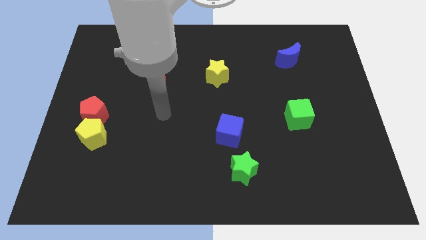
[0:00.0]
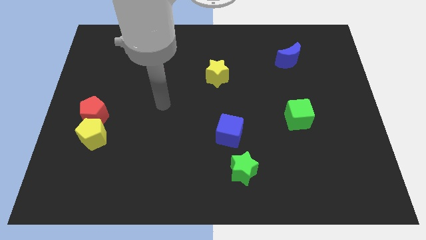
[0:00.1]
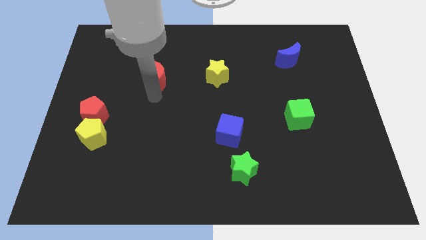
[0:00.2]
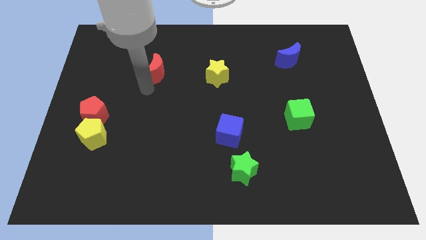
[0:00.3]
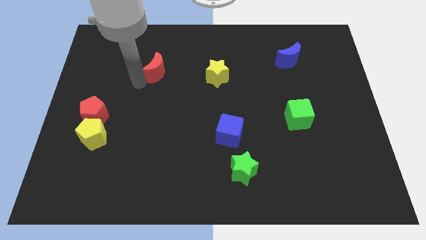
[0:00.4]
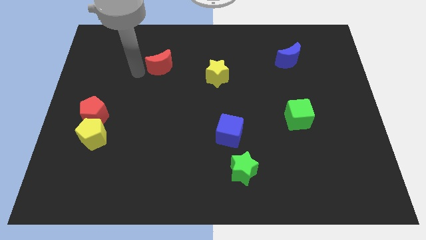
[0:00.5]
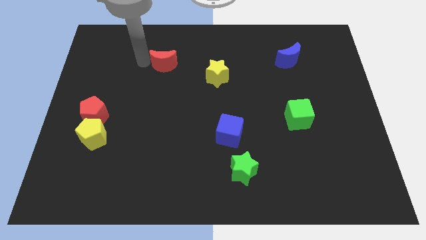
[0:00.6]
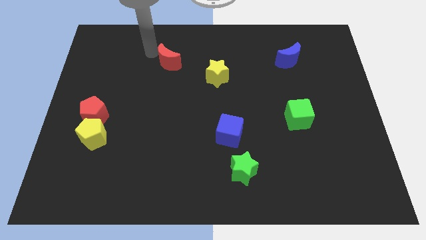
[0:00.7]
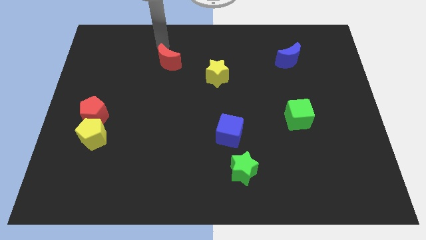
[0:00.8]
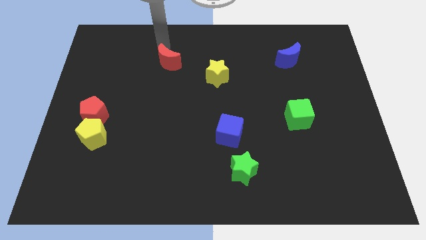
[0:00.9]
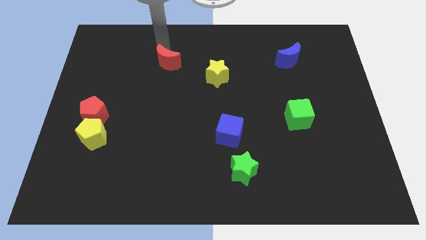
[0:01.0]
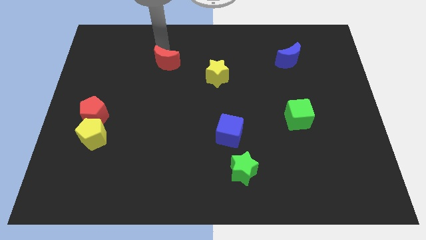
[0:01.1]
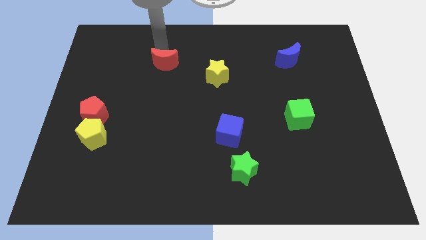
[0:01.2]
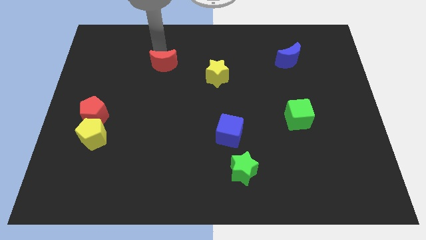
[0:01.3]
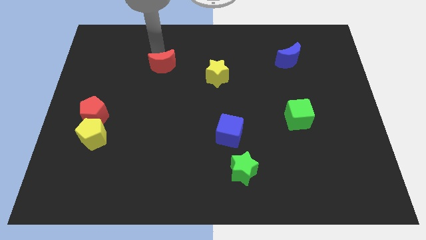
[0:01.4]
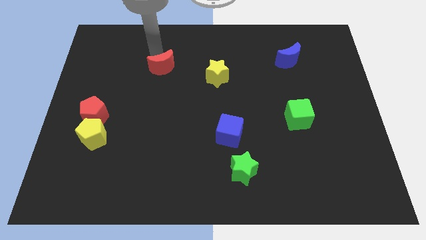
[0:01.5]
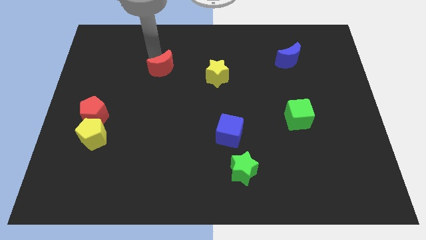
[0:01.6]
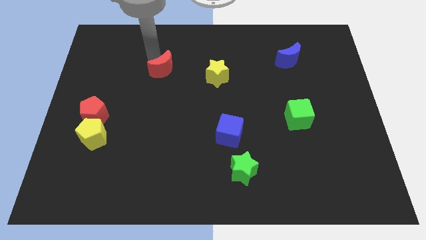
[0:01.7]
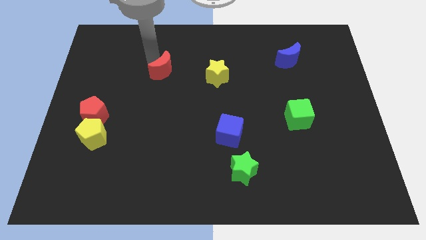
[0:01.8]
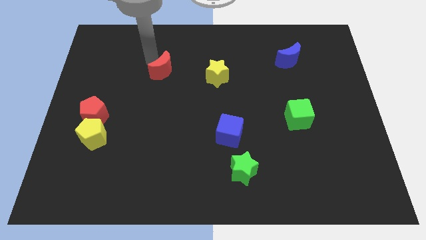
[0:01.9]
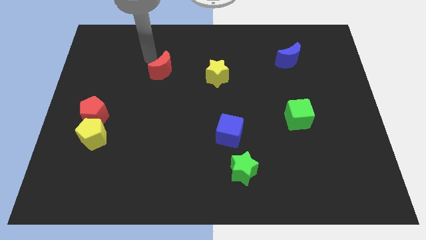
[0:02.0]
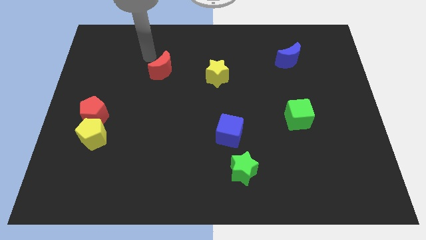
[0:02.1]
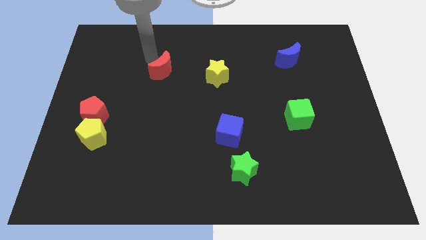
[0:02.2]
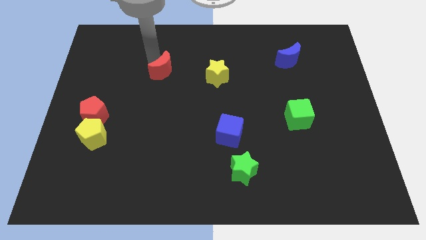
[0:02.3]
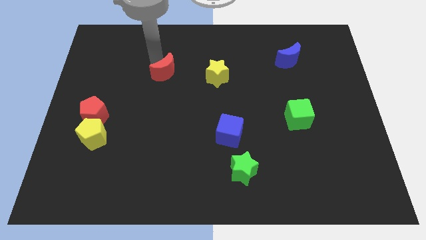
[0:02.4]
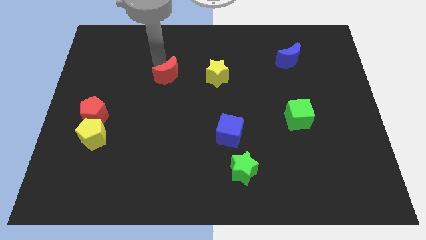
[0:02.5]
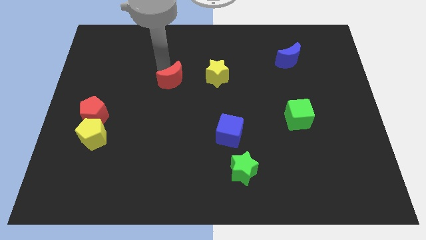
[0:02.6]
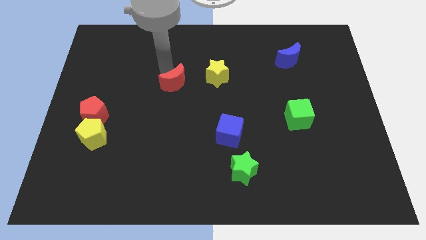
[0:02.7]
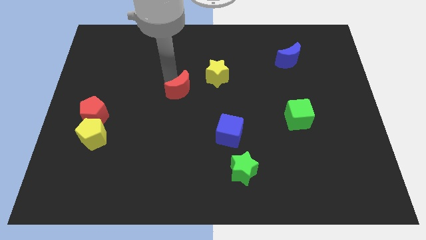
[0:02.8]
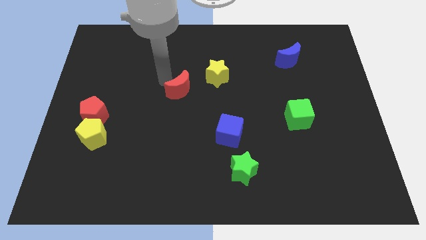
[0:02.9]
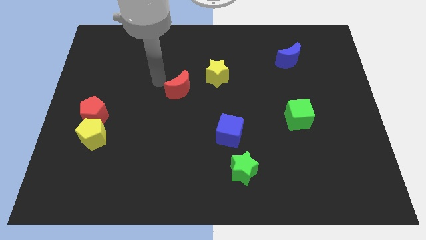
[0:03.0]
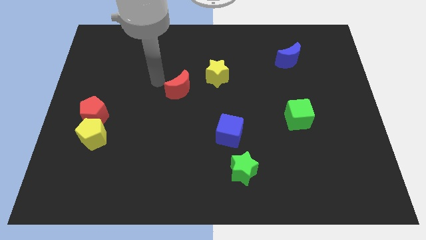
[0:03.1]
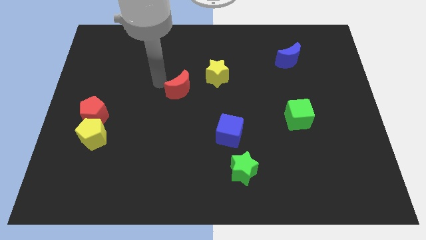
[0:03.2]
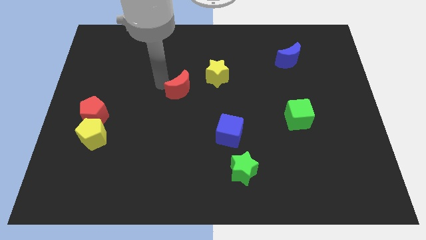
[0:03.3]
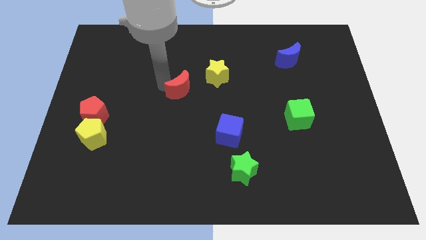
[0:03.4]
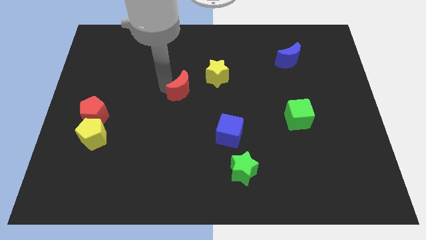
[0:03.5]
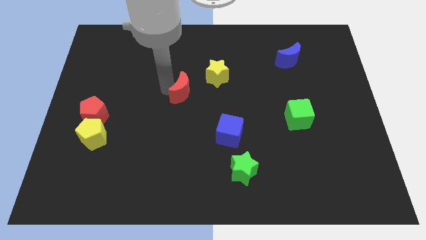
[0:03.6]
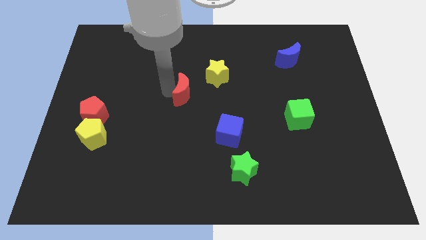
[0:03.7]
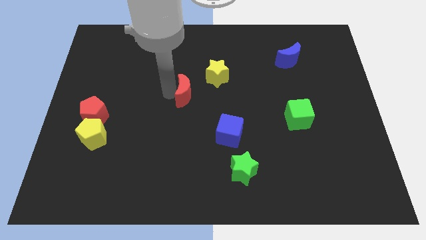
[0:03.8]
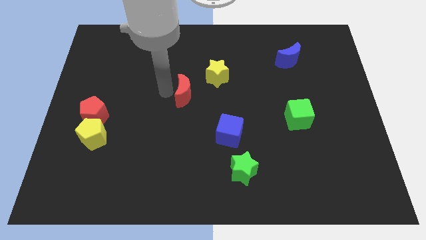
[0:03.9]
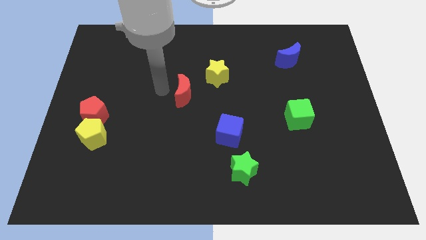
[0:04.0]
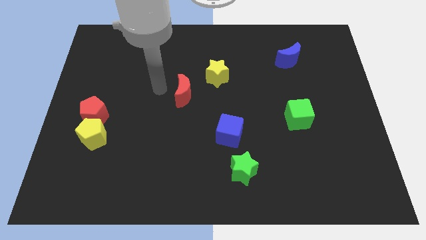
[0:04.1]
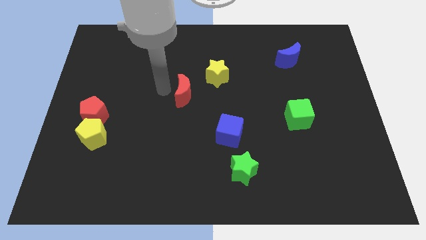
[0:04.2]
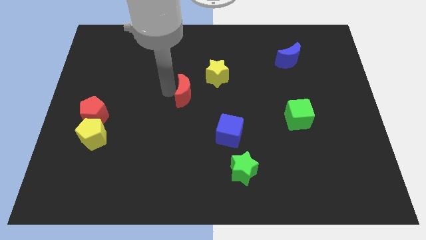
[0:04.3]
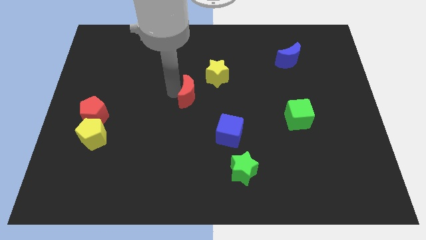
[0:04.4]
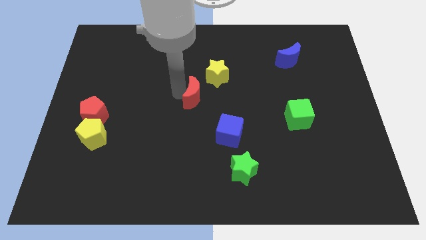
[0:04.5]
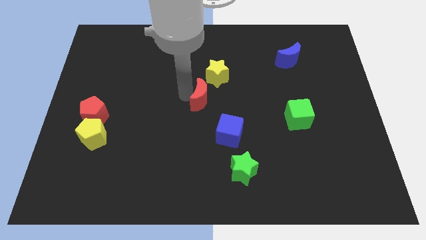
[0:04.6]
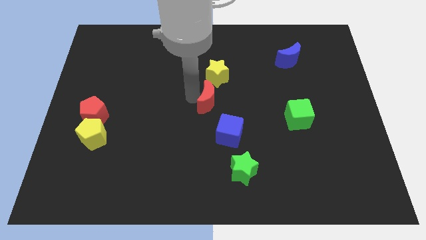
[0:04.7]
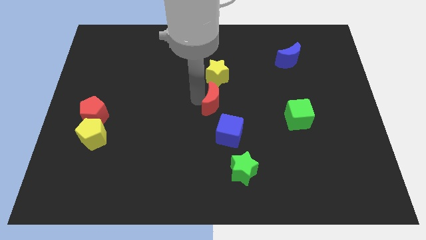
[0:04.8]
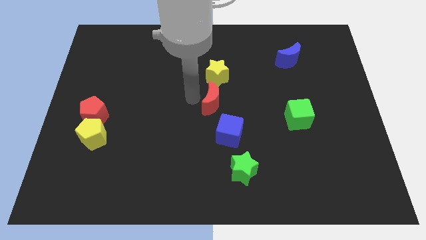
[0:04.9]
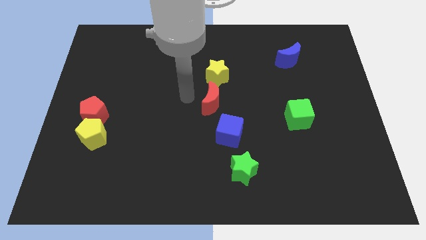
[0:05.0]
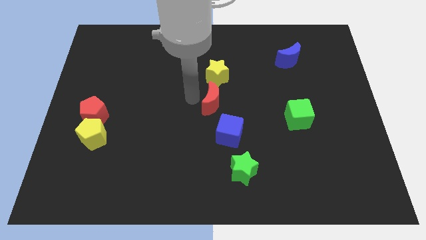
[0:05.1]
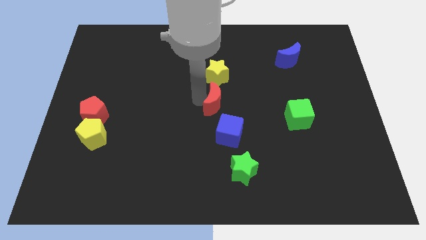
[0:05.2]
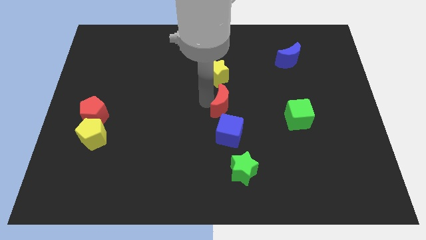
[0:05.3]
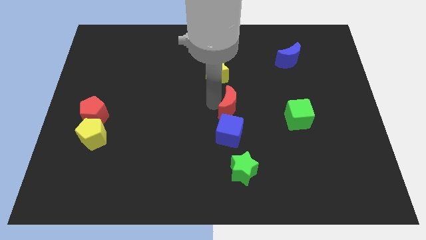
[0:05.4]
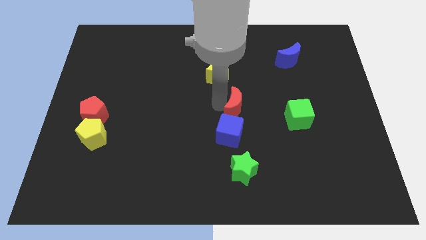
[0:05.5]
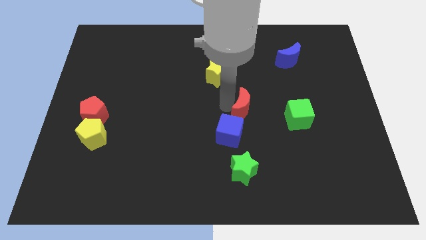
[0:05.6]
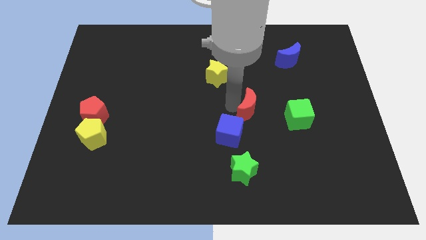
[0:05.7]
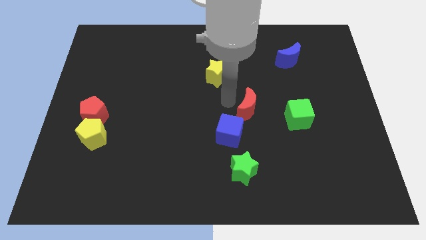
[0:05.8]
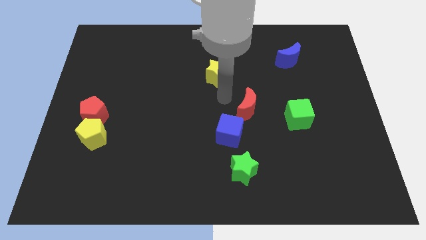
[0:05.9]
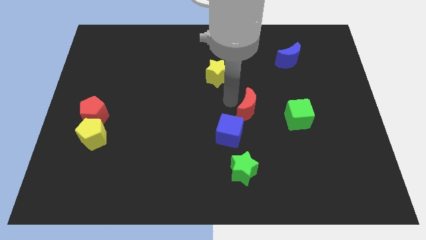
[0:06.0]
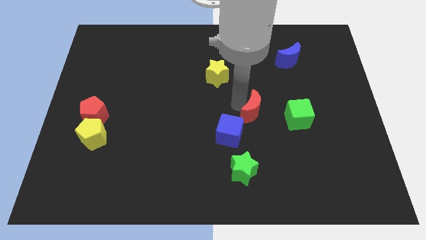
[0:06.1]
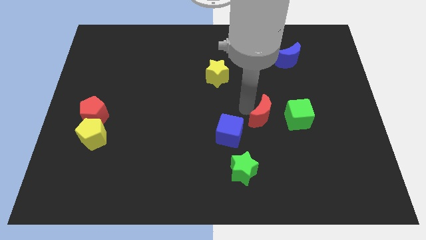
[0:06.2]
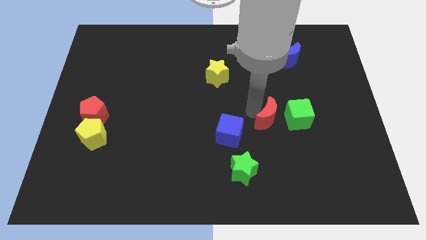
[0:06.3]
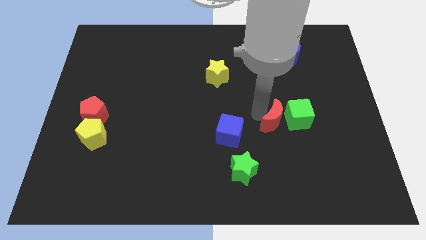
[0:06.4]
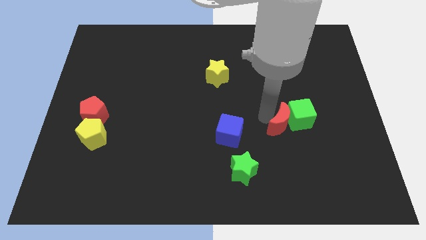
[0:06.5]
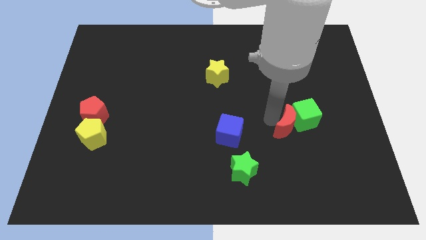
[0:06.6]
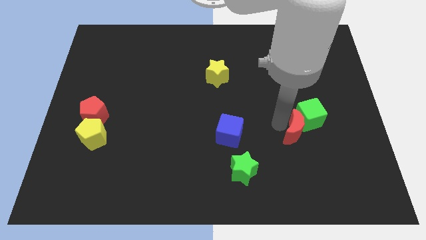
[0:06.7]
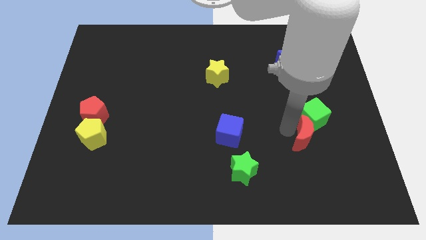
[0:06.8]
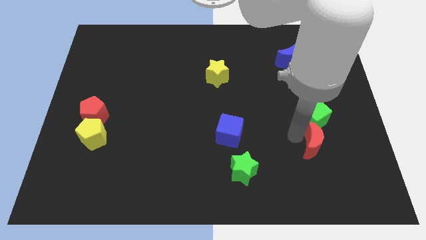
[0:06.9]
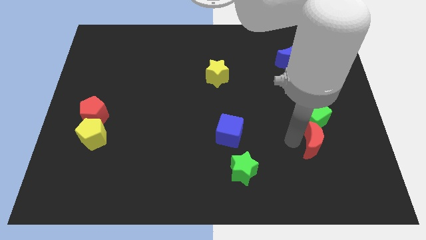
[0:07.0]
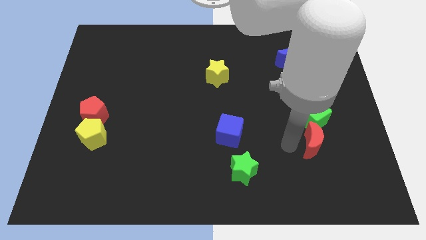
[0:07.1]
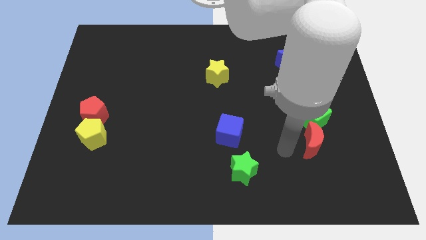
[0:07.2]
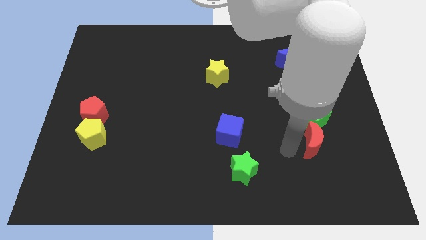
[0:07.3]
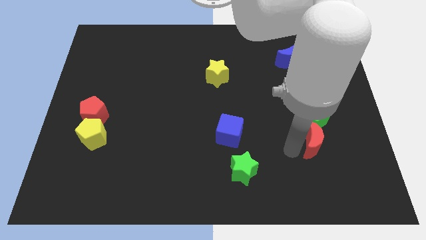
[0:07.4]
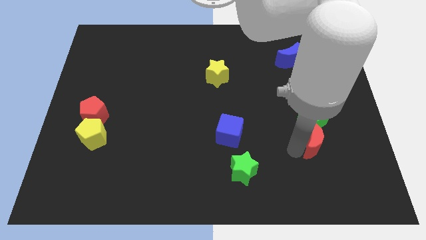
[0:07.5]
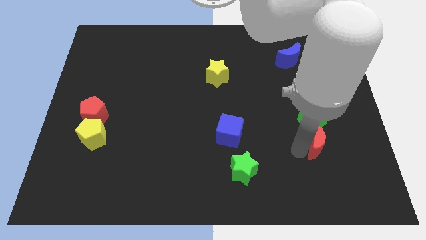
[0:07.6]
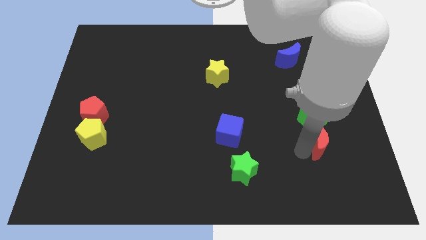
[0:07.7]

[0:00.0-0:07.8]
slide the red moon to the bottom right of the green cube
